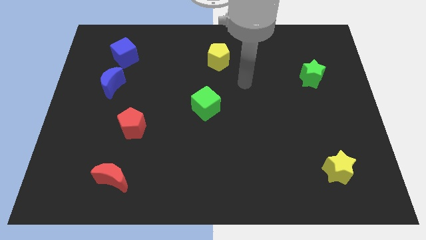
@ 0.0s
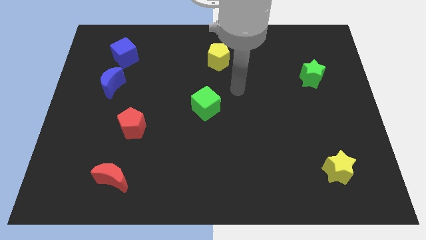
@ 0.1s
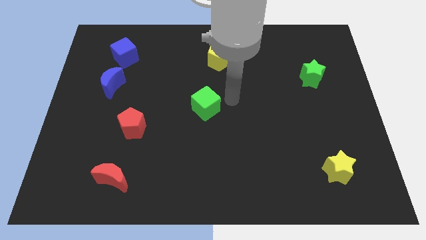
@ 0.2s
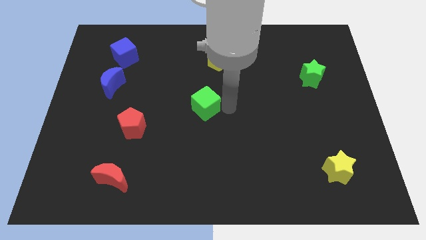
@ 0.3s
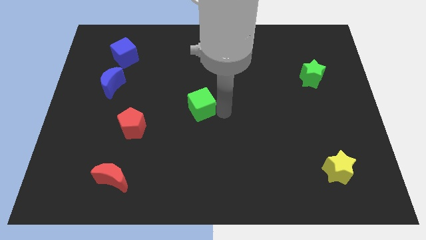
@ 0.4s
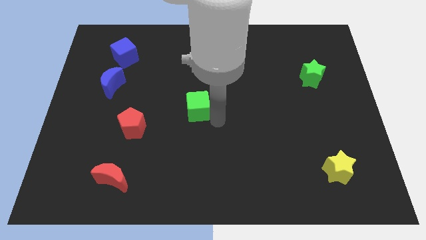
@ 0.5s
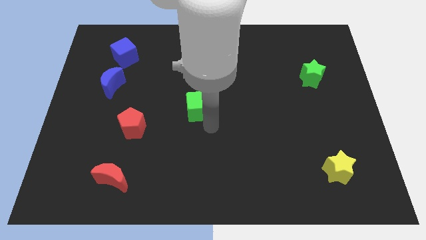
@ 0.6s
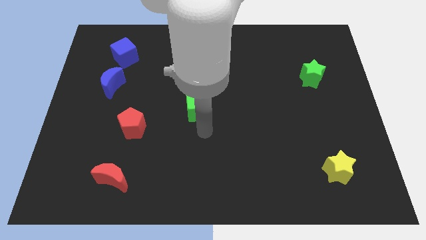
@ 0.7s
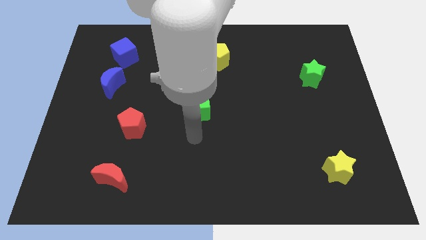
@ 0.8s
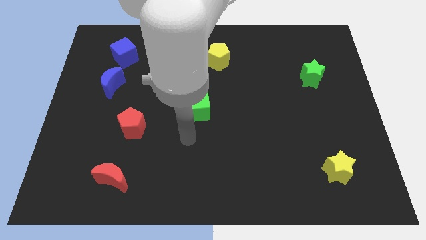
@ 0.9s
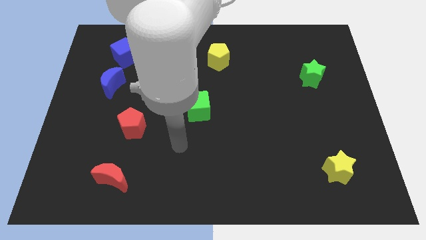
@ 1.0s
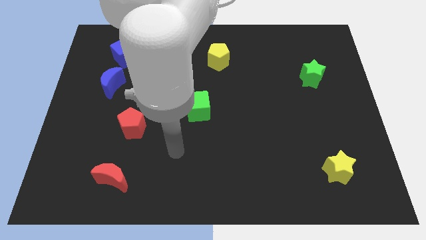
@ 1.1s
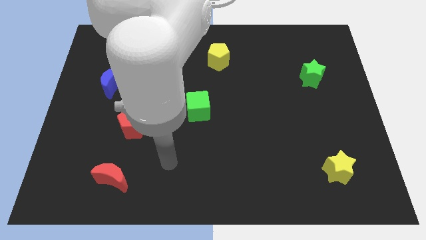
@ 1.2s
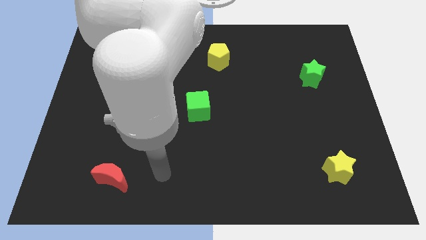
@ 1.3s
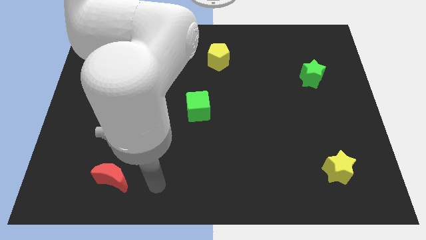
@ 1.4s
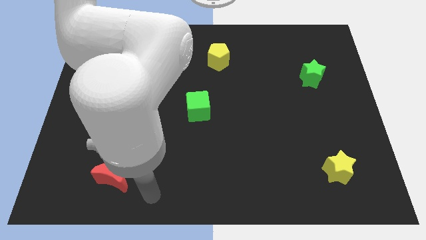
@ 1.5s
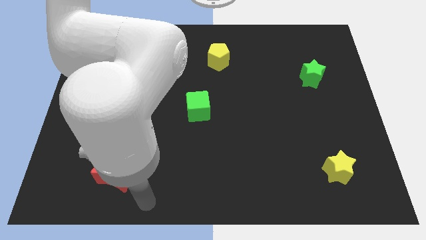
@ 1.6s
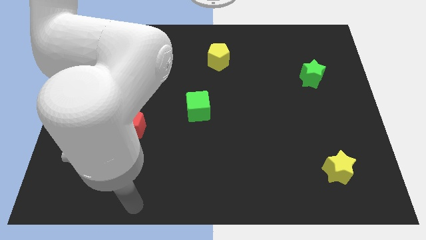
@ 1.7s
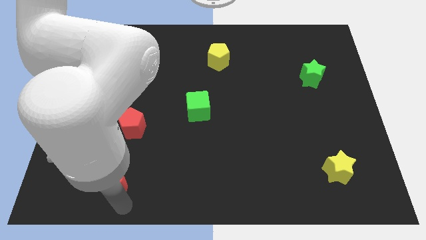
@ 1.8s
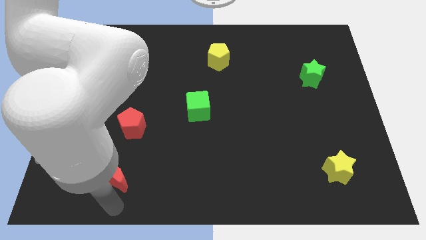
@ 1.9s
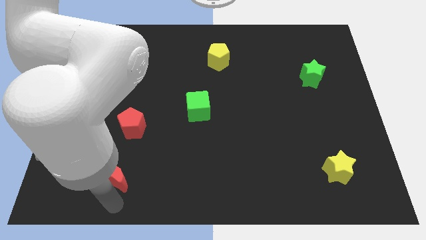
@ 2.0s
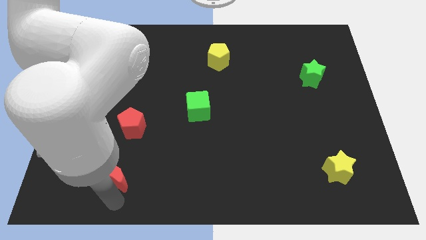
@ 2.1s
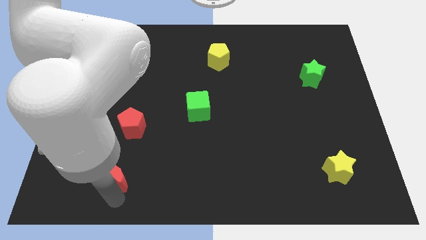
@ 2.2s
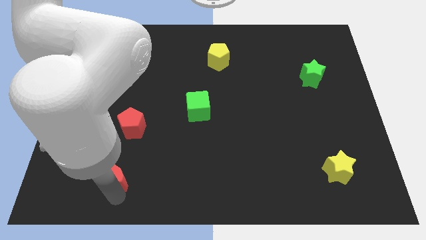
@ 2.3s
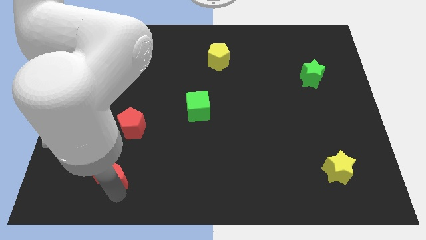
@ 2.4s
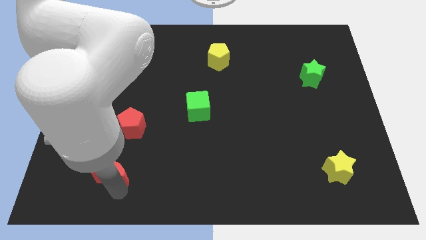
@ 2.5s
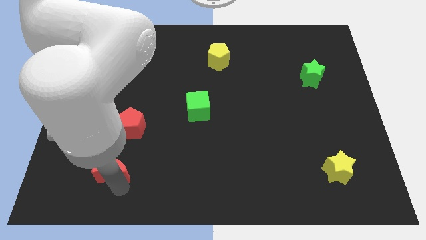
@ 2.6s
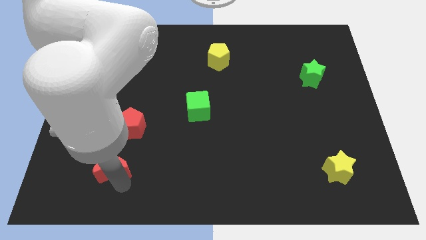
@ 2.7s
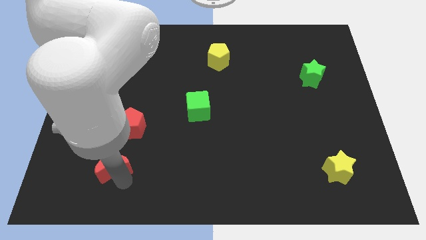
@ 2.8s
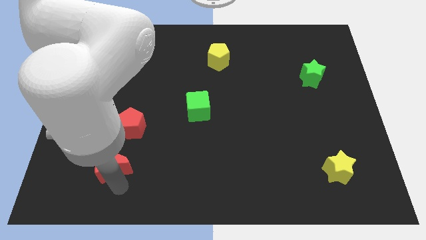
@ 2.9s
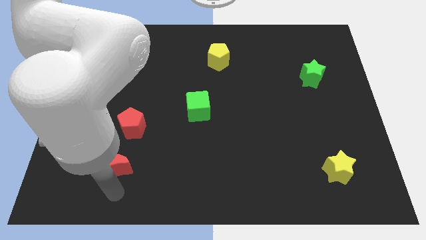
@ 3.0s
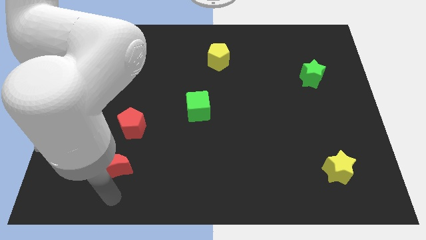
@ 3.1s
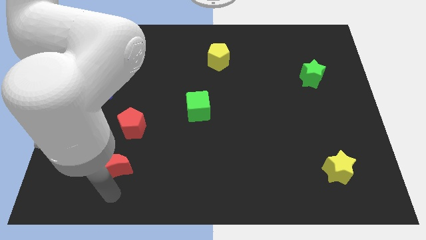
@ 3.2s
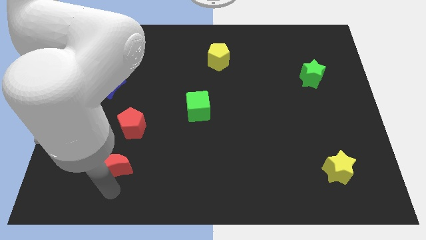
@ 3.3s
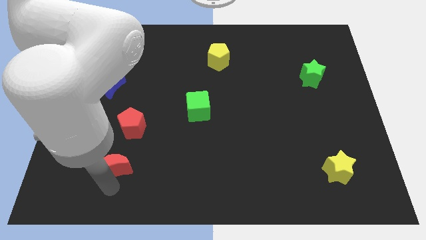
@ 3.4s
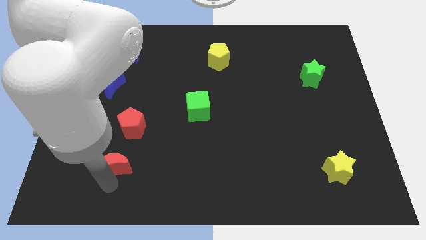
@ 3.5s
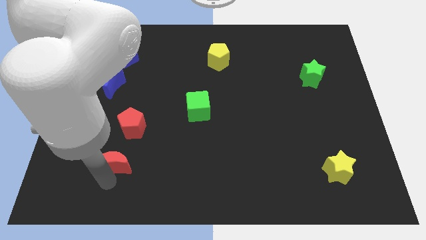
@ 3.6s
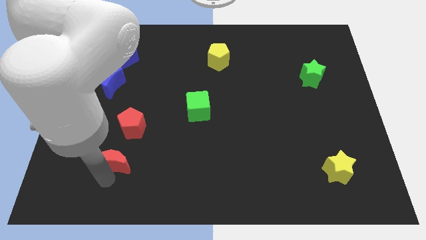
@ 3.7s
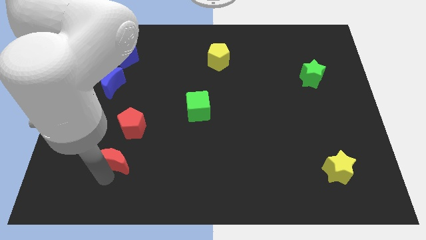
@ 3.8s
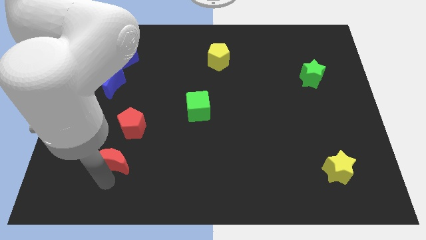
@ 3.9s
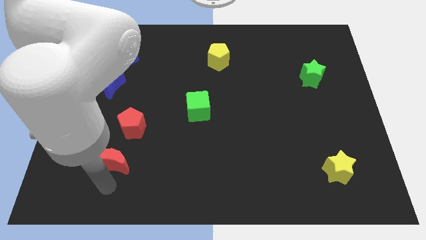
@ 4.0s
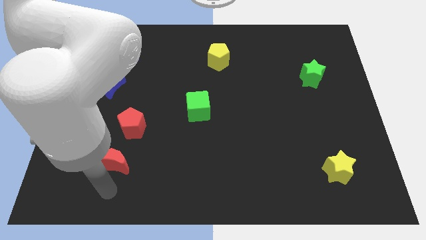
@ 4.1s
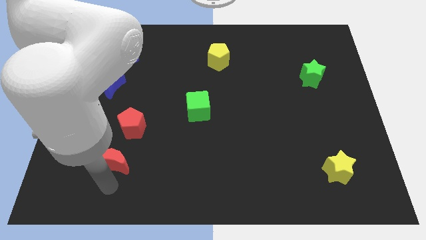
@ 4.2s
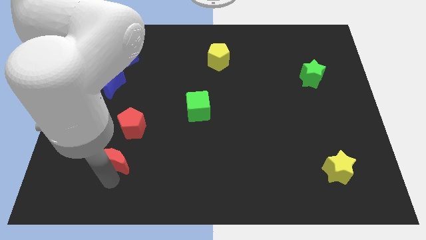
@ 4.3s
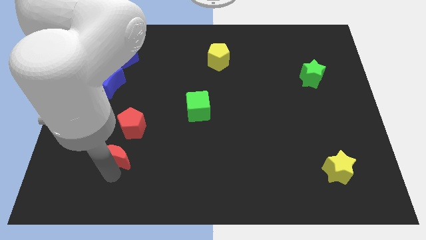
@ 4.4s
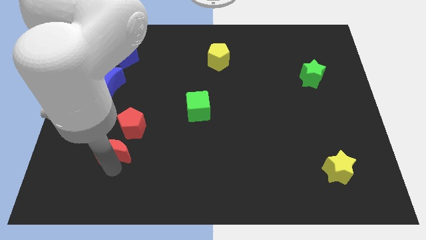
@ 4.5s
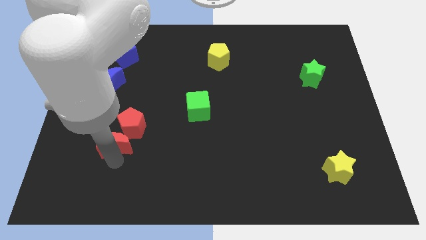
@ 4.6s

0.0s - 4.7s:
slide the red moon up somewhat

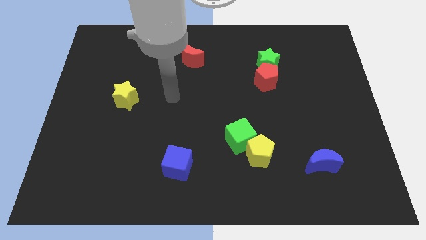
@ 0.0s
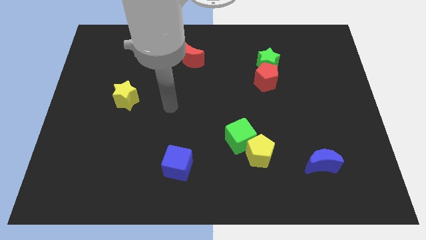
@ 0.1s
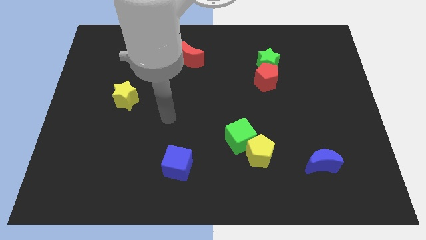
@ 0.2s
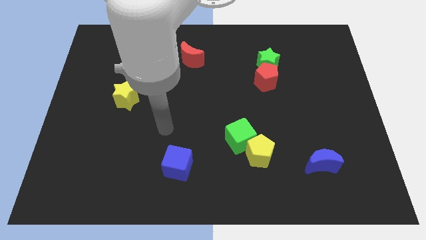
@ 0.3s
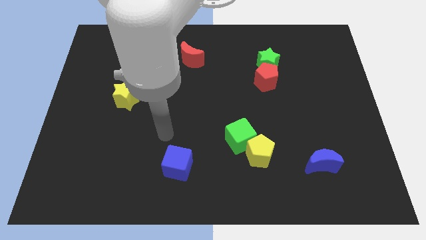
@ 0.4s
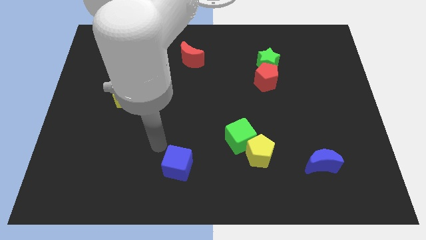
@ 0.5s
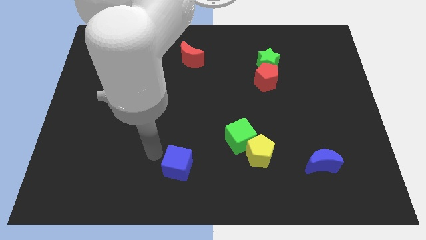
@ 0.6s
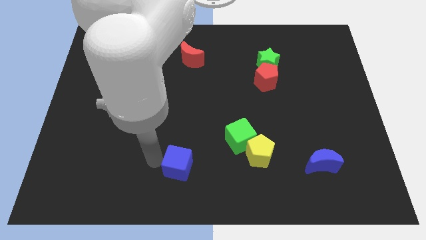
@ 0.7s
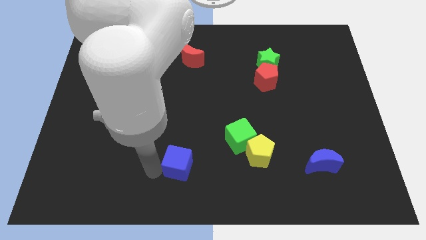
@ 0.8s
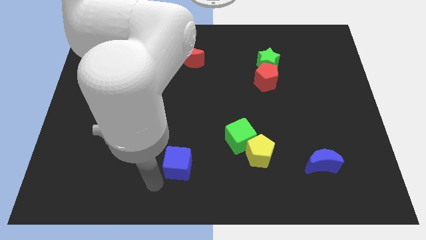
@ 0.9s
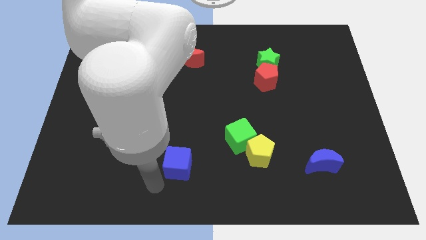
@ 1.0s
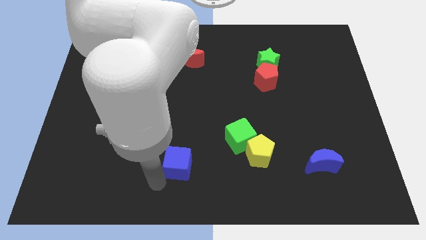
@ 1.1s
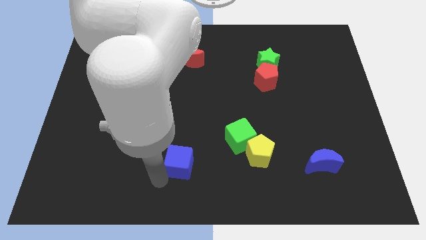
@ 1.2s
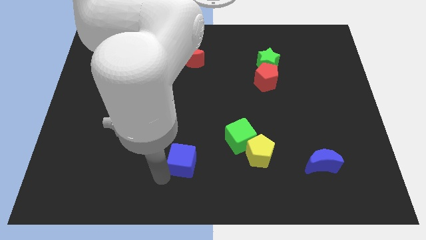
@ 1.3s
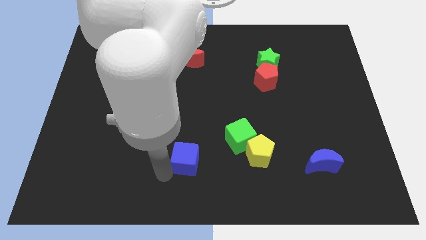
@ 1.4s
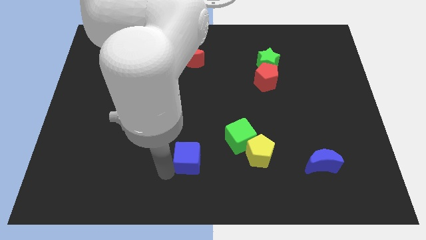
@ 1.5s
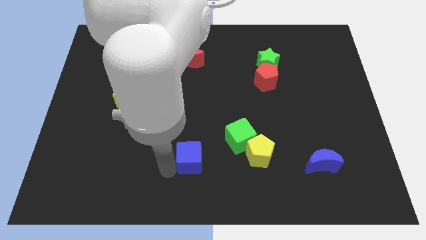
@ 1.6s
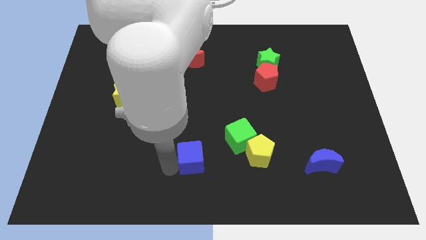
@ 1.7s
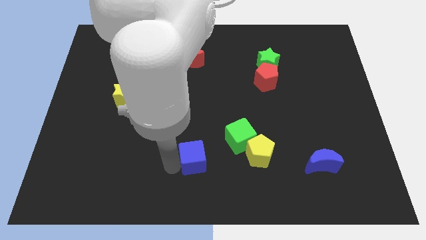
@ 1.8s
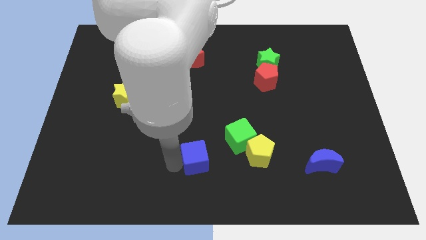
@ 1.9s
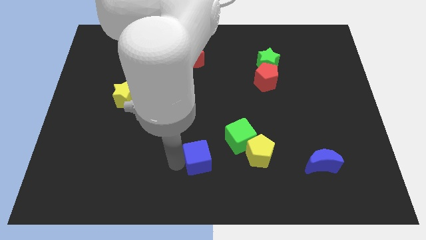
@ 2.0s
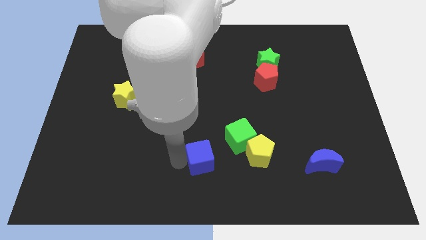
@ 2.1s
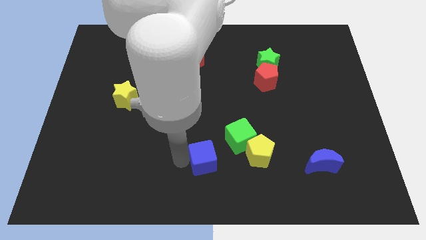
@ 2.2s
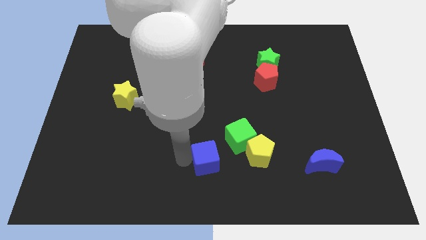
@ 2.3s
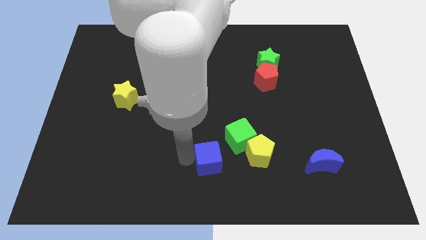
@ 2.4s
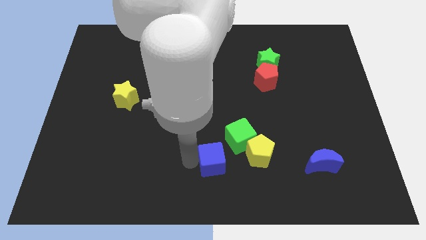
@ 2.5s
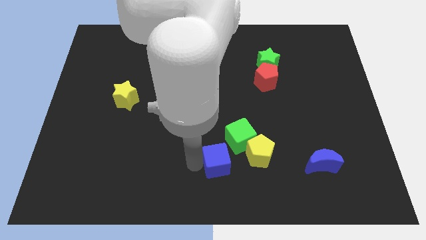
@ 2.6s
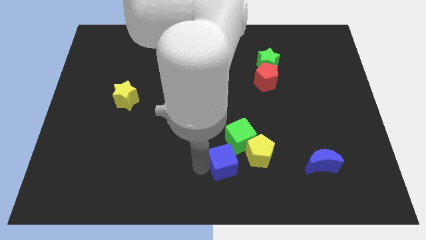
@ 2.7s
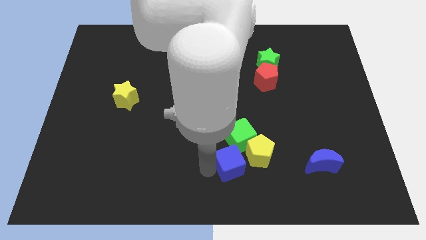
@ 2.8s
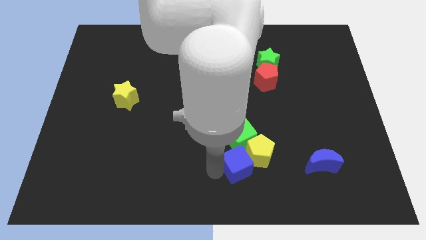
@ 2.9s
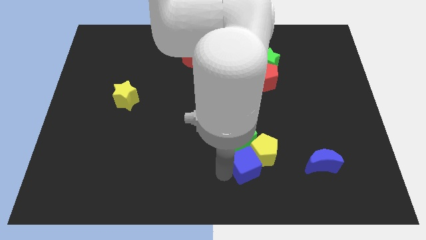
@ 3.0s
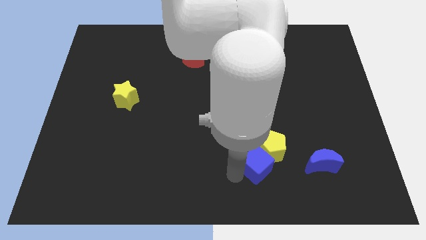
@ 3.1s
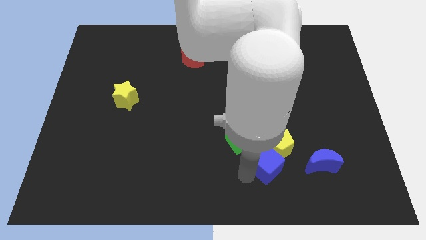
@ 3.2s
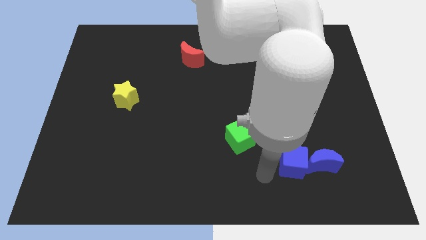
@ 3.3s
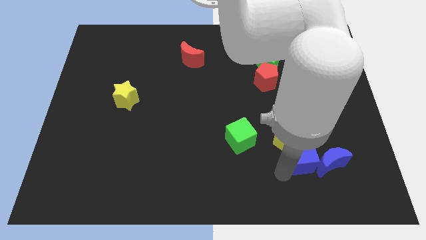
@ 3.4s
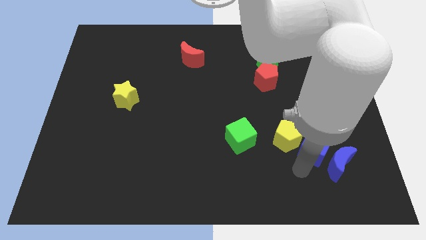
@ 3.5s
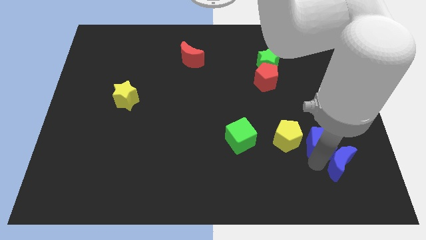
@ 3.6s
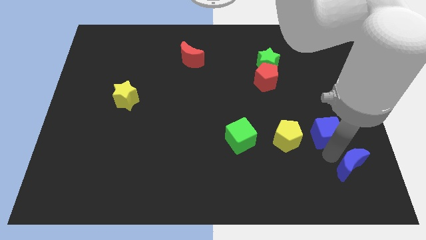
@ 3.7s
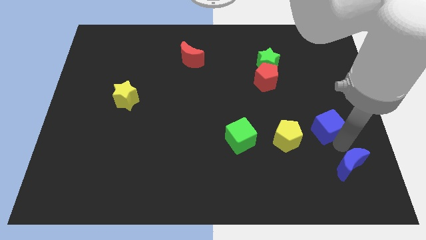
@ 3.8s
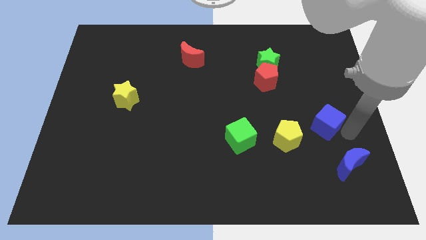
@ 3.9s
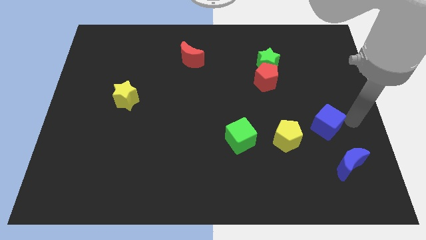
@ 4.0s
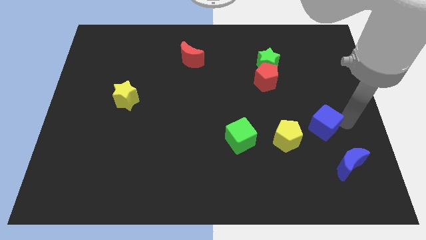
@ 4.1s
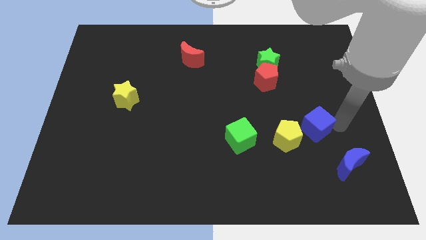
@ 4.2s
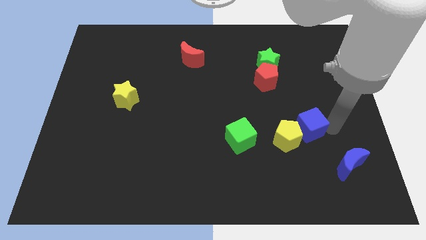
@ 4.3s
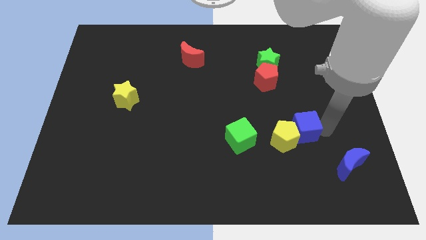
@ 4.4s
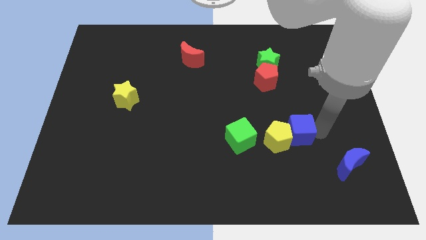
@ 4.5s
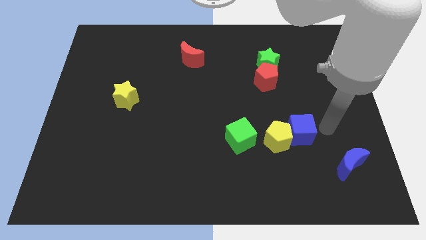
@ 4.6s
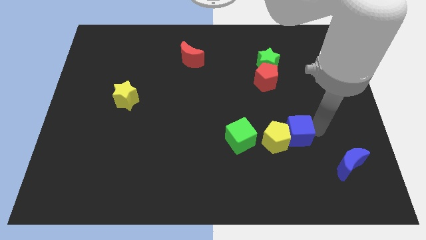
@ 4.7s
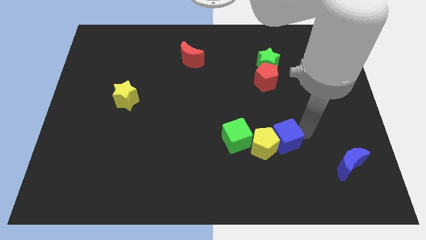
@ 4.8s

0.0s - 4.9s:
slide the blue cube upwards and to the right diagonally a little
